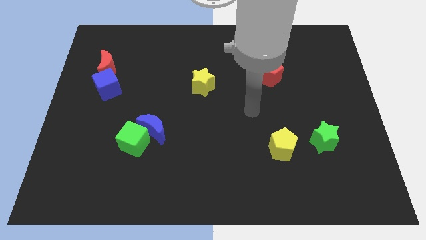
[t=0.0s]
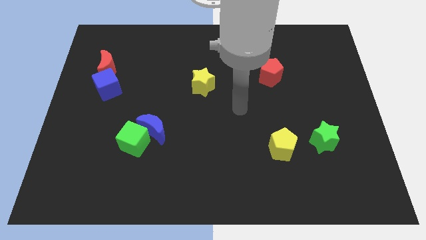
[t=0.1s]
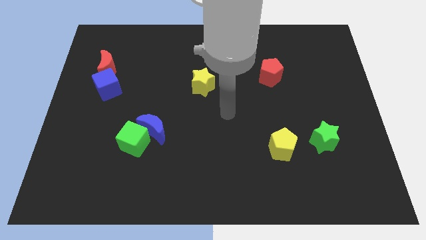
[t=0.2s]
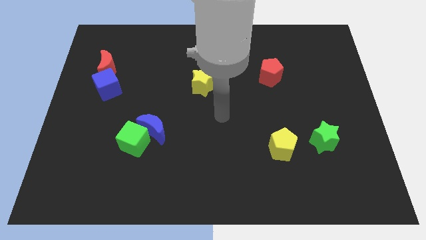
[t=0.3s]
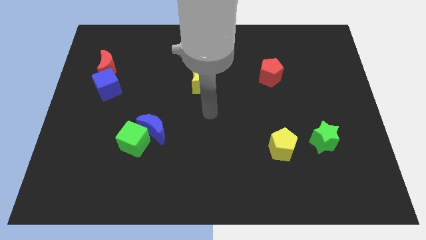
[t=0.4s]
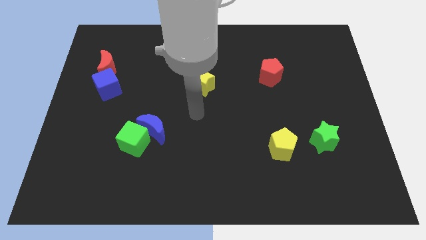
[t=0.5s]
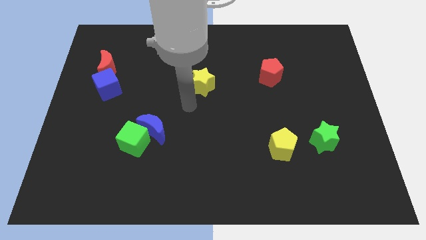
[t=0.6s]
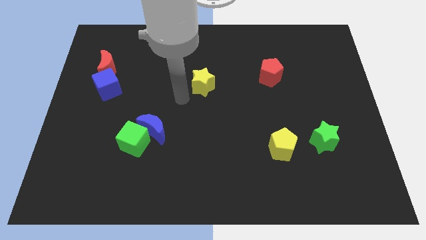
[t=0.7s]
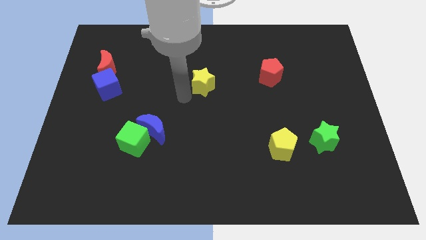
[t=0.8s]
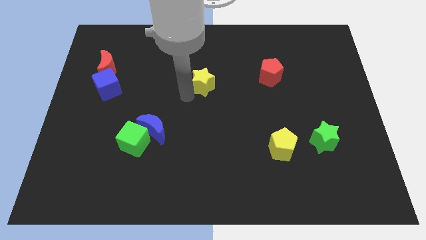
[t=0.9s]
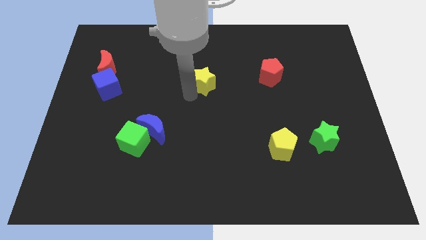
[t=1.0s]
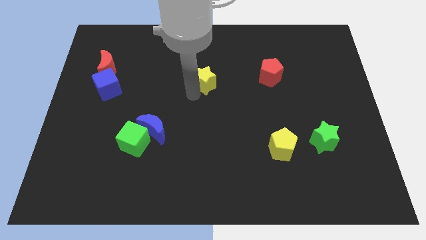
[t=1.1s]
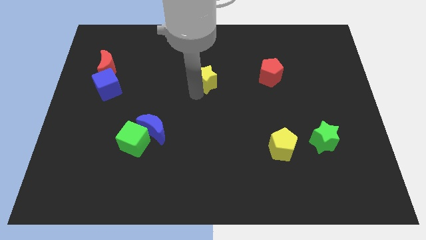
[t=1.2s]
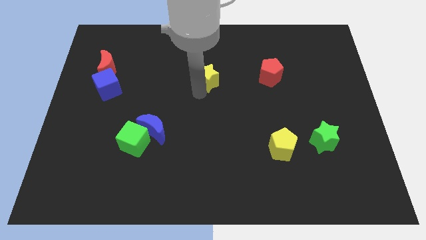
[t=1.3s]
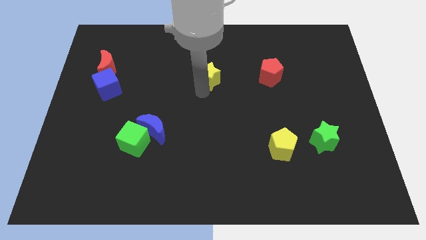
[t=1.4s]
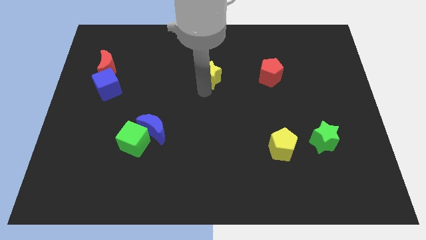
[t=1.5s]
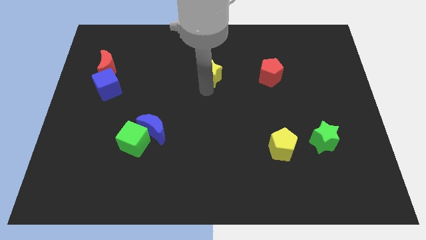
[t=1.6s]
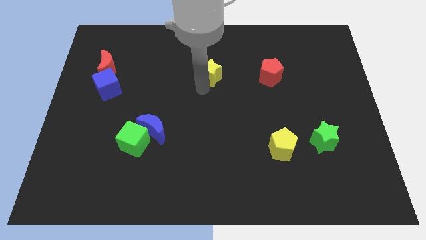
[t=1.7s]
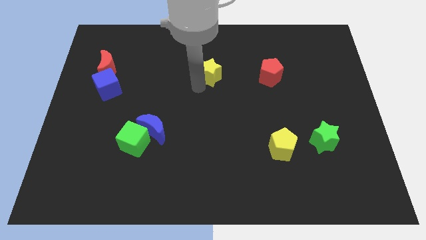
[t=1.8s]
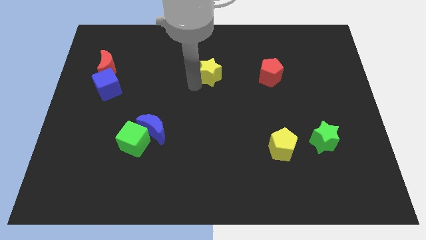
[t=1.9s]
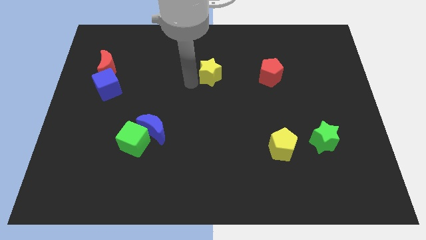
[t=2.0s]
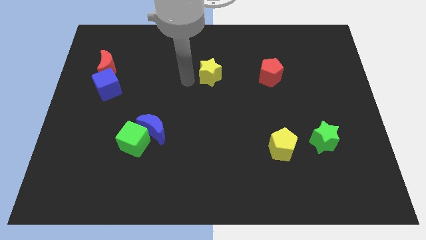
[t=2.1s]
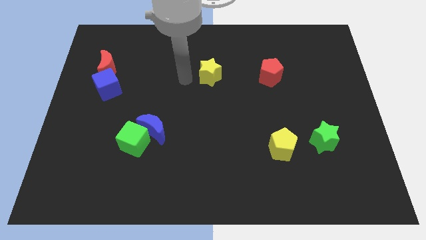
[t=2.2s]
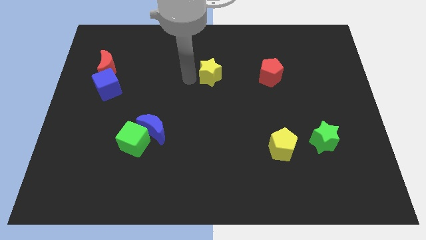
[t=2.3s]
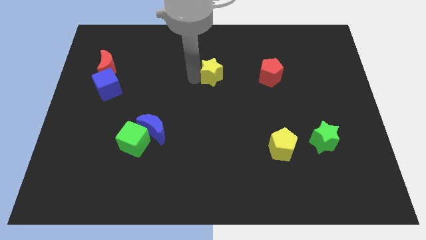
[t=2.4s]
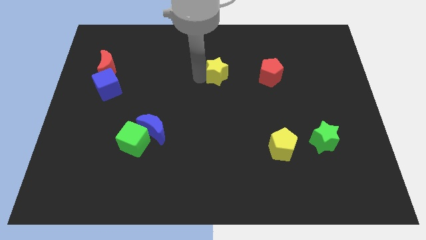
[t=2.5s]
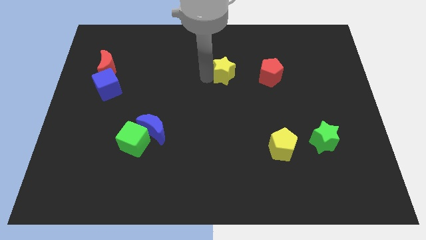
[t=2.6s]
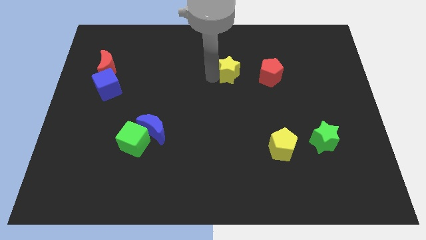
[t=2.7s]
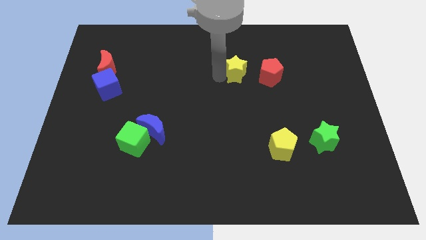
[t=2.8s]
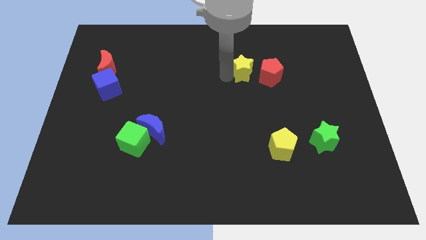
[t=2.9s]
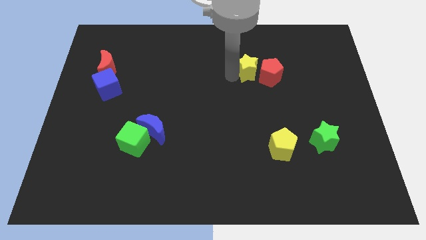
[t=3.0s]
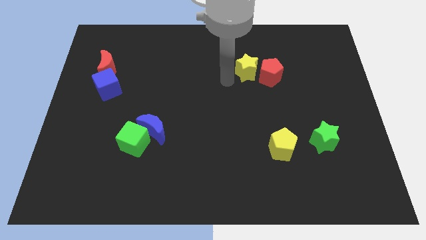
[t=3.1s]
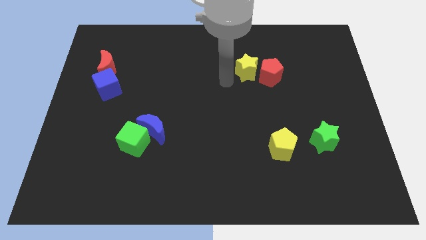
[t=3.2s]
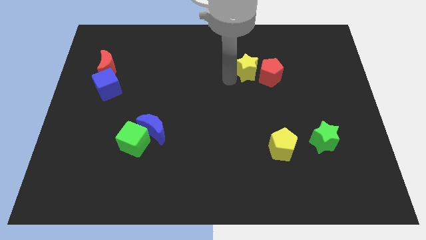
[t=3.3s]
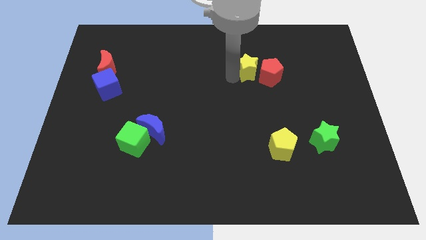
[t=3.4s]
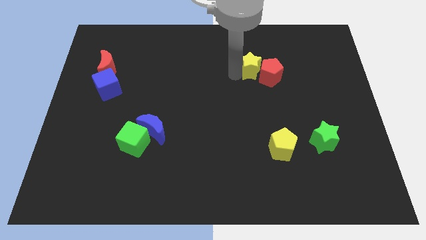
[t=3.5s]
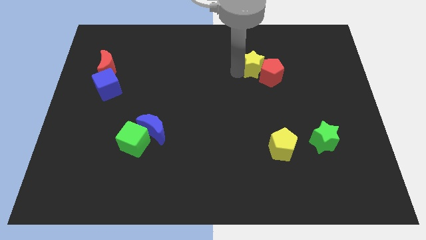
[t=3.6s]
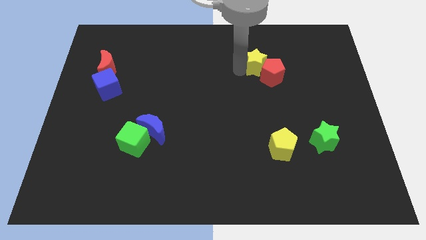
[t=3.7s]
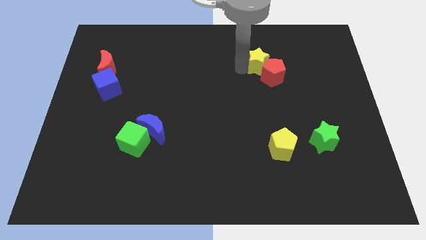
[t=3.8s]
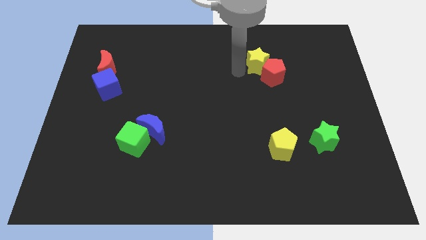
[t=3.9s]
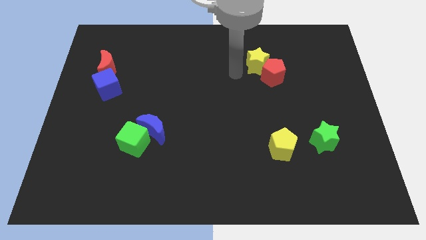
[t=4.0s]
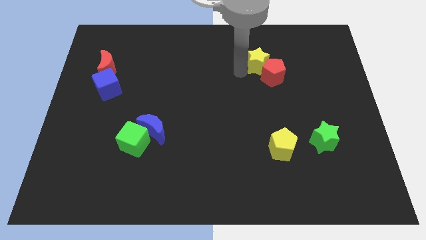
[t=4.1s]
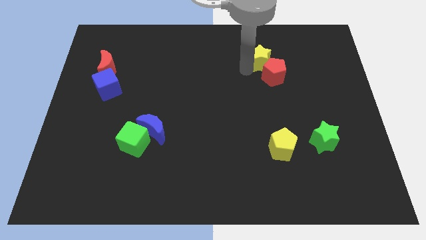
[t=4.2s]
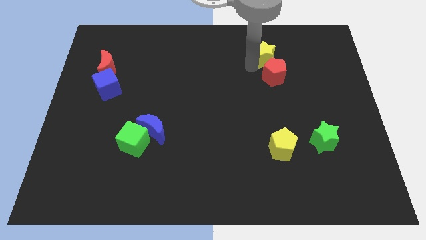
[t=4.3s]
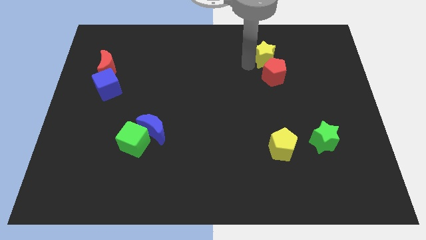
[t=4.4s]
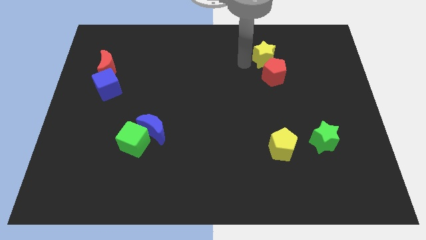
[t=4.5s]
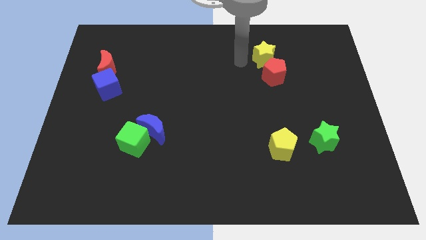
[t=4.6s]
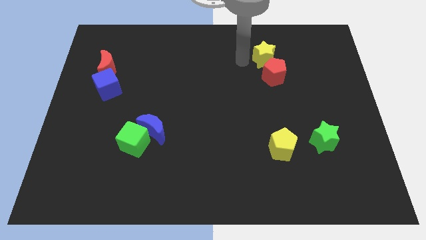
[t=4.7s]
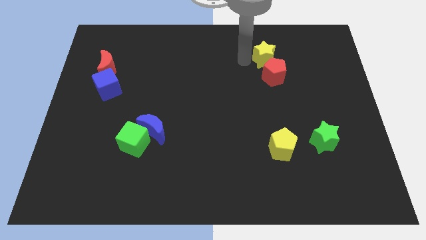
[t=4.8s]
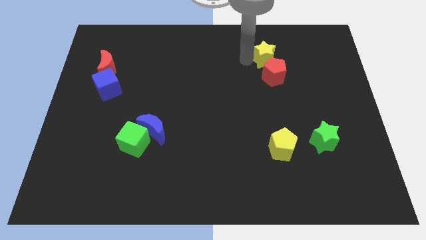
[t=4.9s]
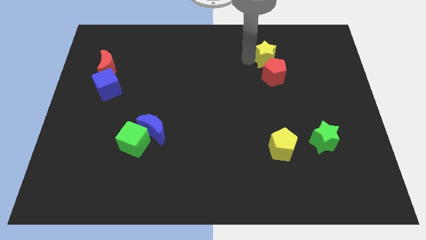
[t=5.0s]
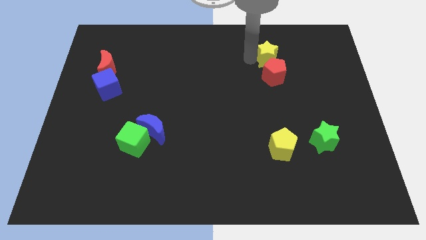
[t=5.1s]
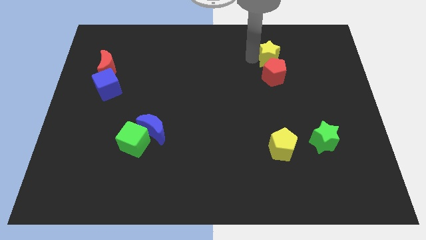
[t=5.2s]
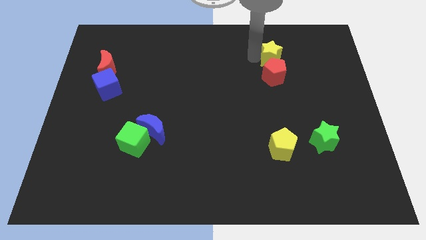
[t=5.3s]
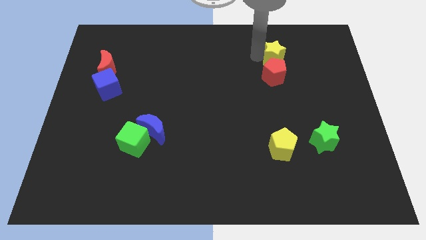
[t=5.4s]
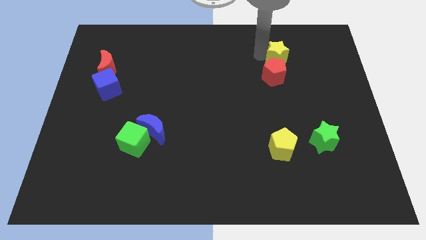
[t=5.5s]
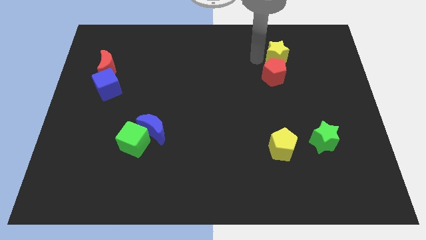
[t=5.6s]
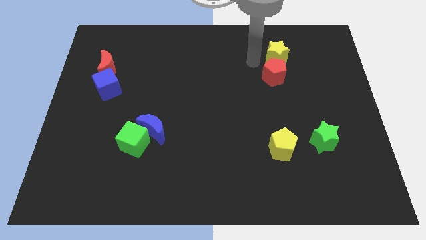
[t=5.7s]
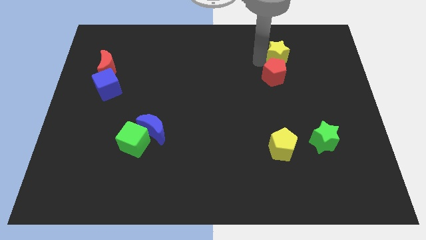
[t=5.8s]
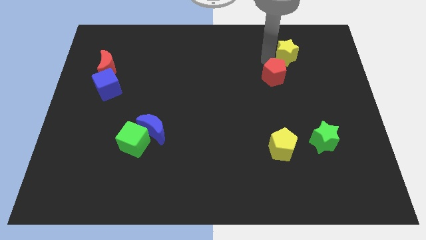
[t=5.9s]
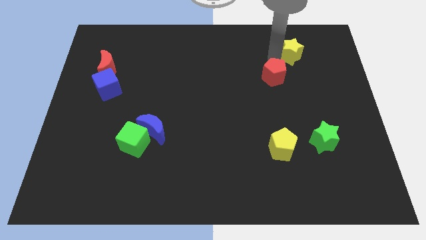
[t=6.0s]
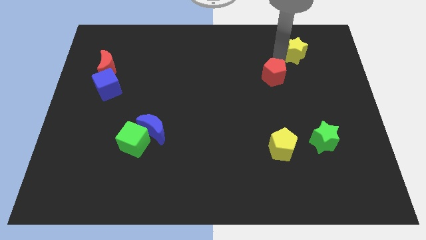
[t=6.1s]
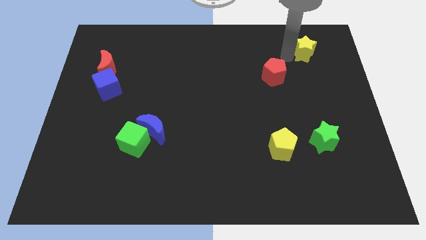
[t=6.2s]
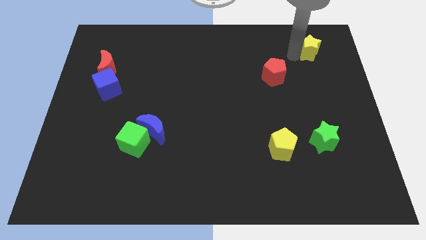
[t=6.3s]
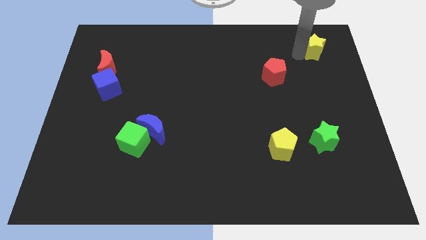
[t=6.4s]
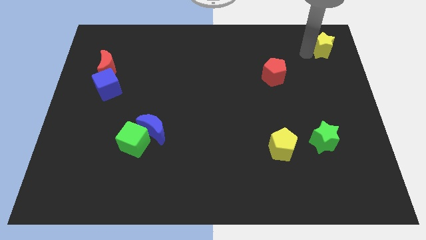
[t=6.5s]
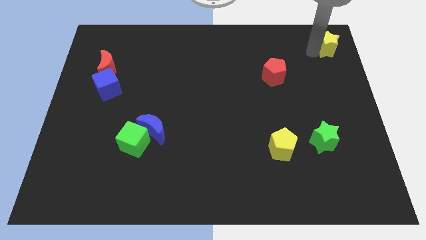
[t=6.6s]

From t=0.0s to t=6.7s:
put the yellow star to the top right corner
